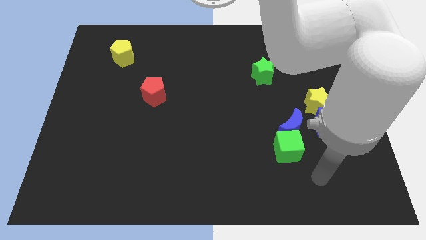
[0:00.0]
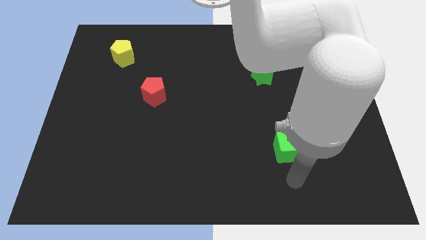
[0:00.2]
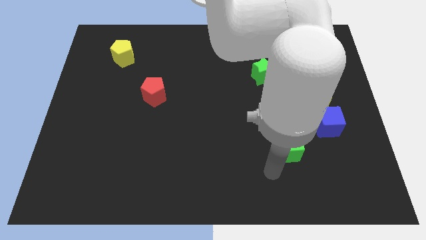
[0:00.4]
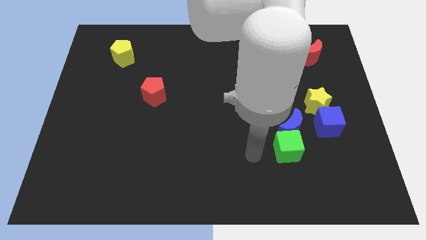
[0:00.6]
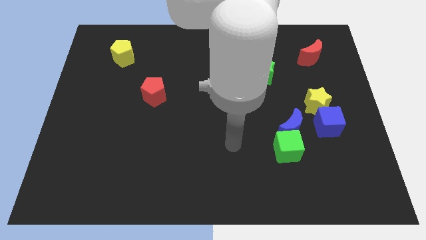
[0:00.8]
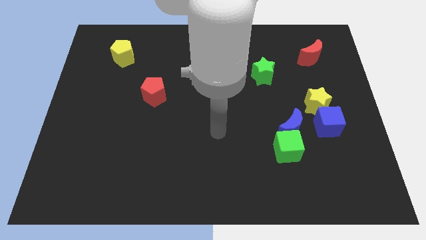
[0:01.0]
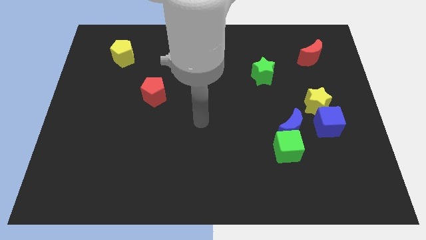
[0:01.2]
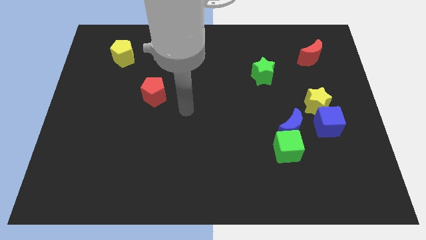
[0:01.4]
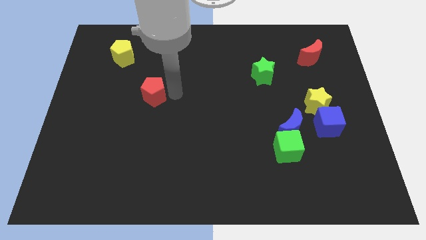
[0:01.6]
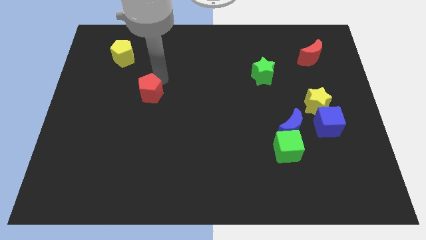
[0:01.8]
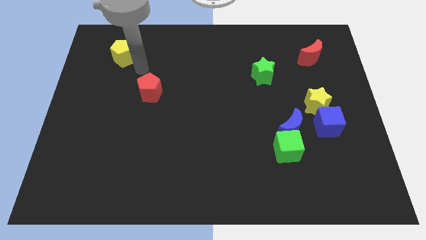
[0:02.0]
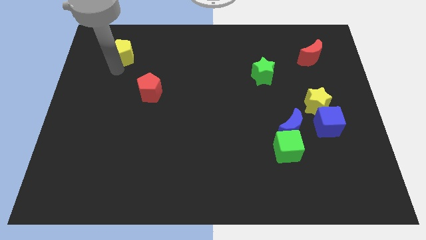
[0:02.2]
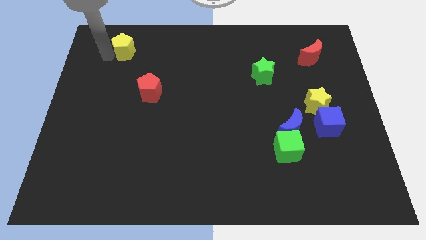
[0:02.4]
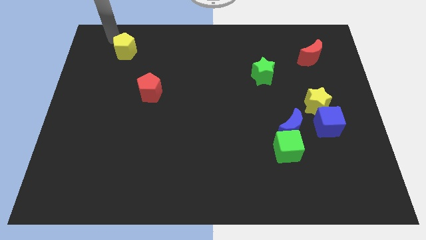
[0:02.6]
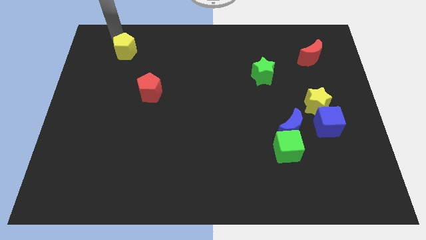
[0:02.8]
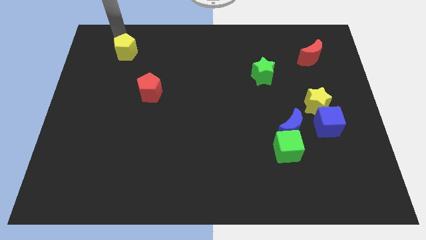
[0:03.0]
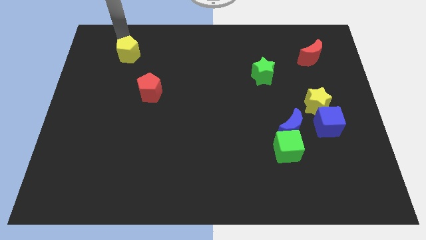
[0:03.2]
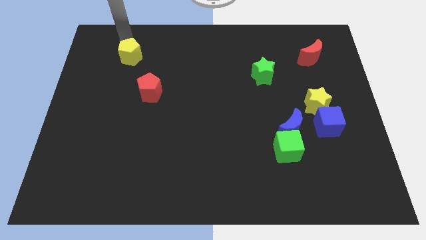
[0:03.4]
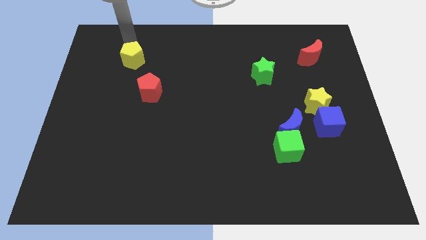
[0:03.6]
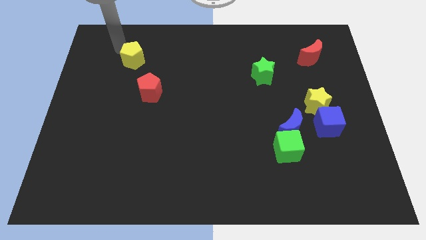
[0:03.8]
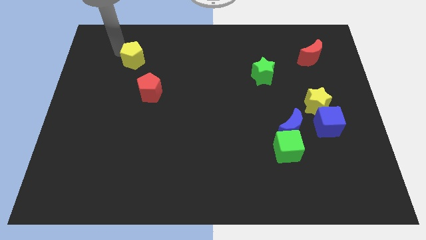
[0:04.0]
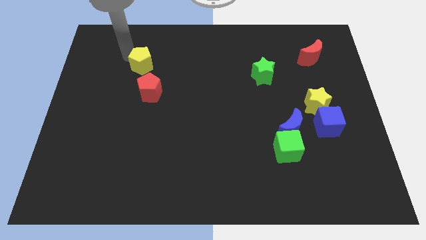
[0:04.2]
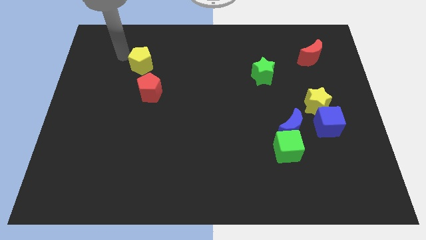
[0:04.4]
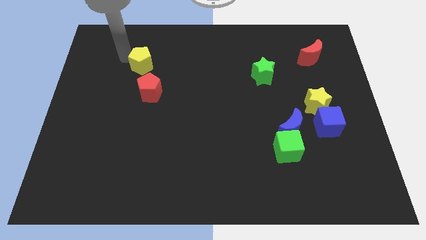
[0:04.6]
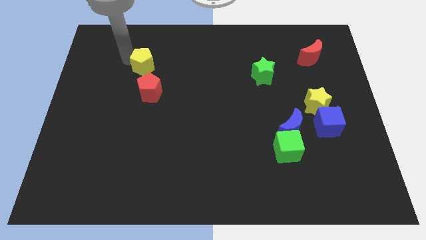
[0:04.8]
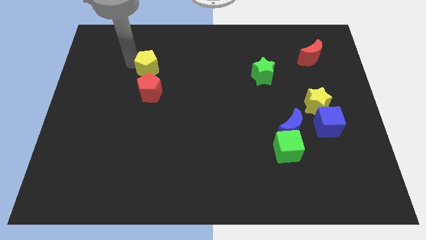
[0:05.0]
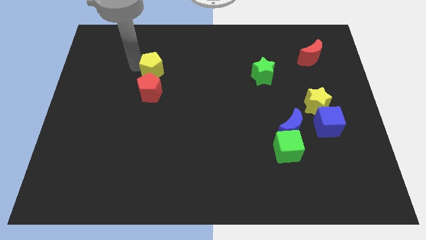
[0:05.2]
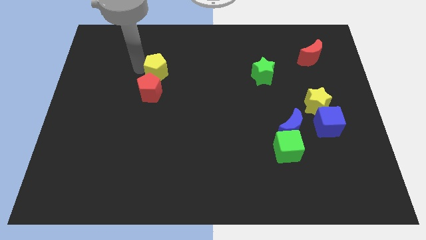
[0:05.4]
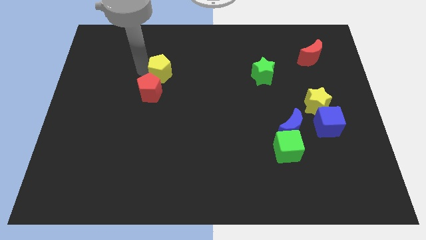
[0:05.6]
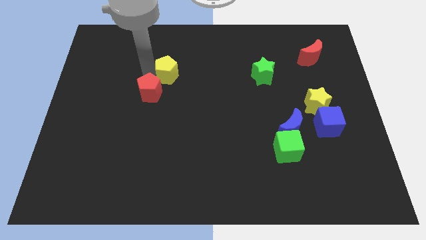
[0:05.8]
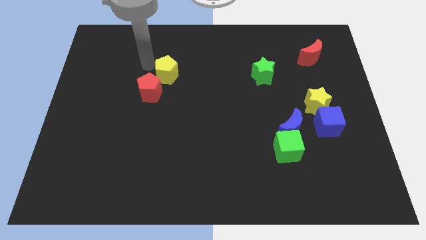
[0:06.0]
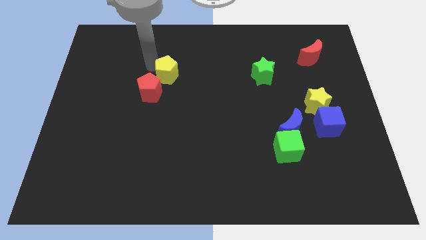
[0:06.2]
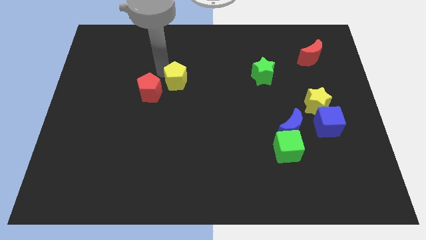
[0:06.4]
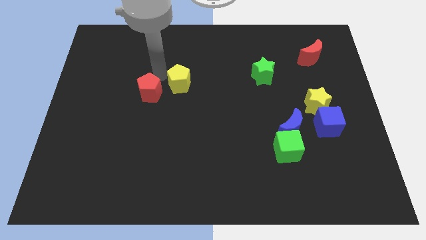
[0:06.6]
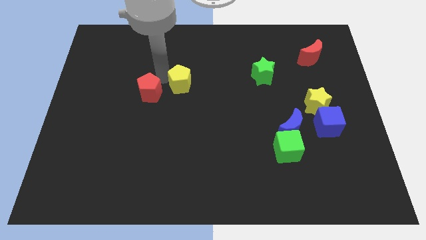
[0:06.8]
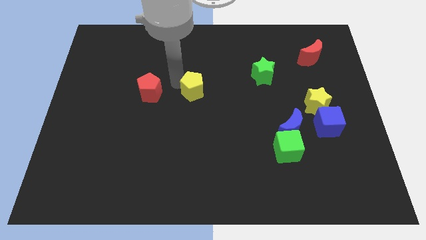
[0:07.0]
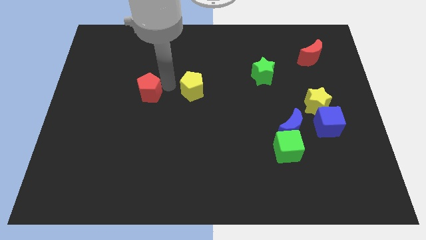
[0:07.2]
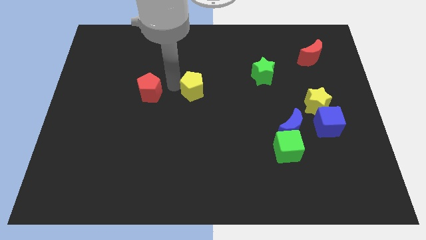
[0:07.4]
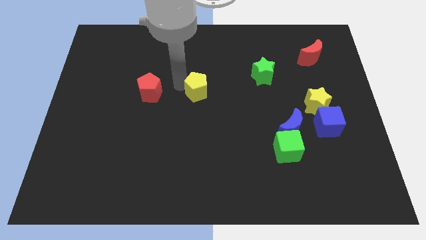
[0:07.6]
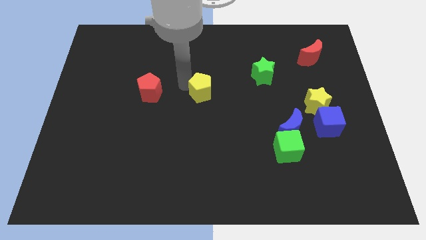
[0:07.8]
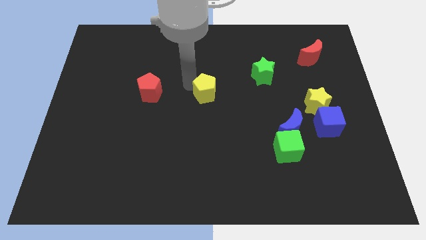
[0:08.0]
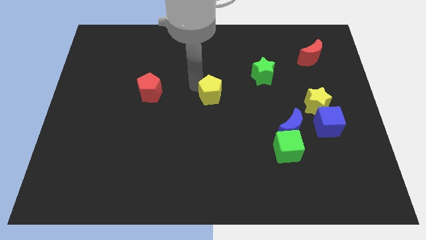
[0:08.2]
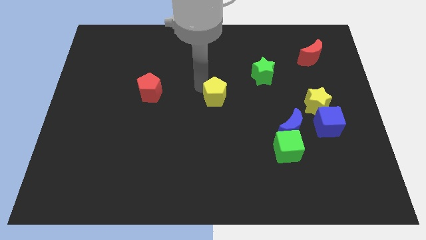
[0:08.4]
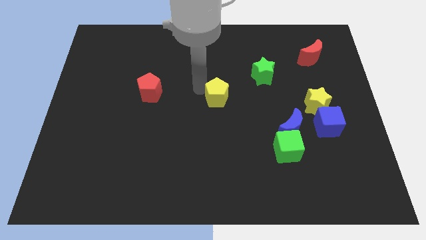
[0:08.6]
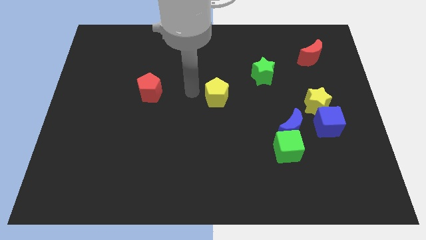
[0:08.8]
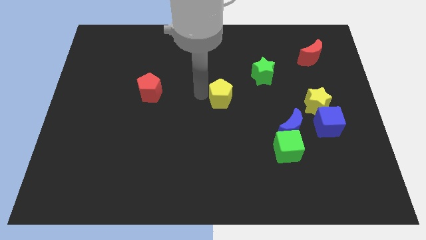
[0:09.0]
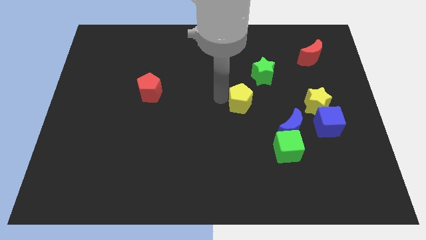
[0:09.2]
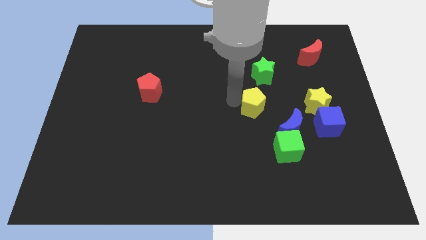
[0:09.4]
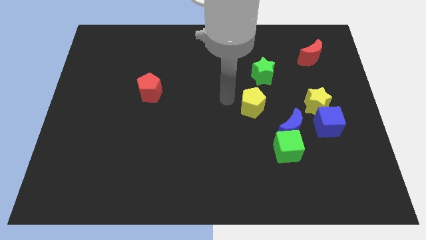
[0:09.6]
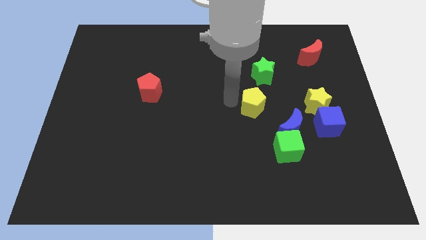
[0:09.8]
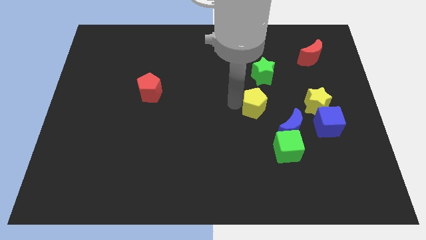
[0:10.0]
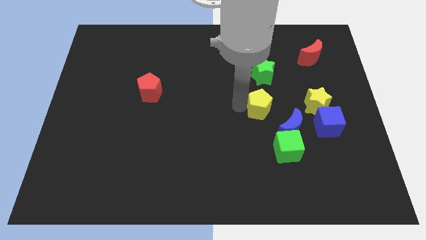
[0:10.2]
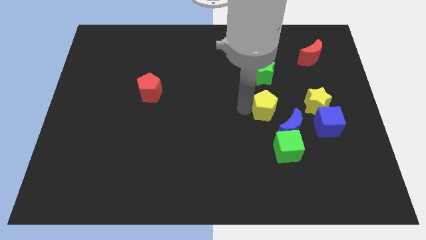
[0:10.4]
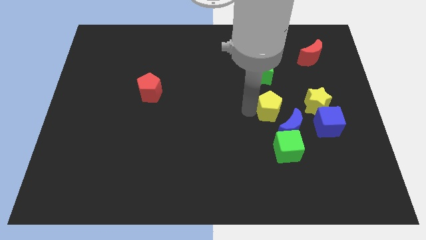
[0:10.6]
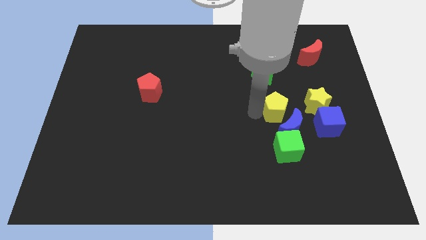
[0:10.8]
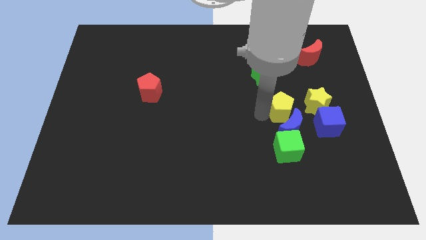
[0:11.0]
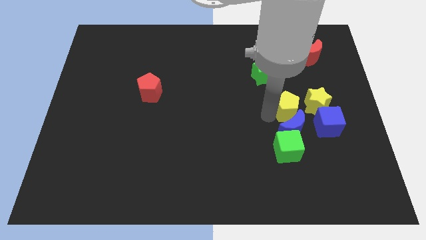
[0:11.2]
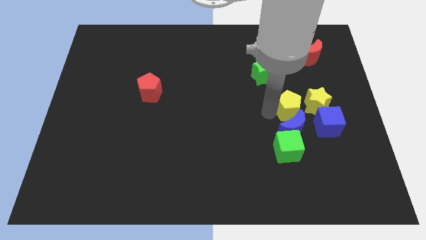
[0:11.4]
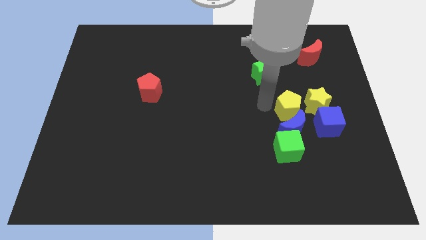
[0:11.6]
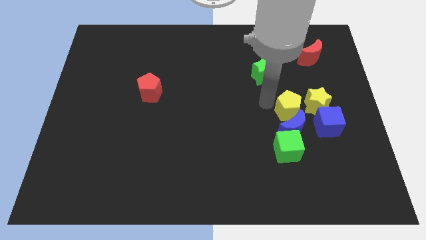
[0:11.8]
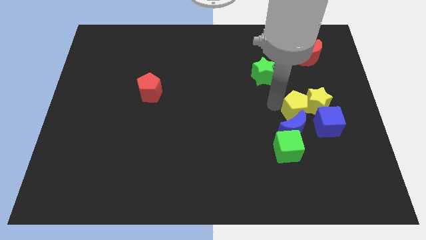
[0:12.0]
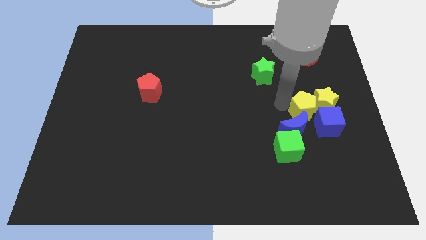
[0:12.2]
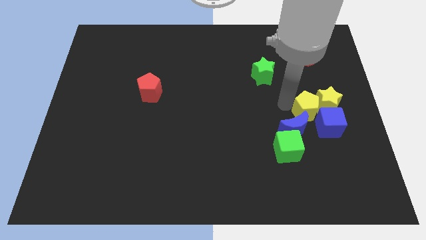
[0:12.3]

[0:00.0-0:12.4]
move the yellow pentagon towards the blue cube

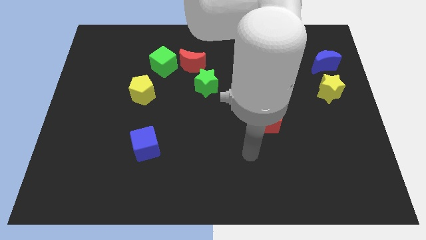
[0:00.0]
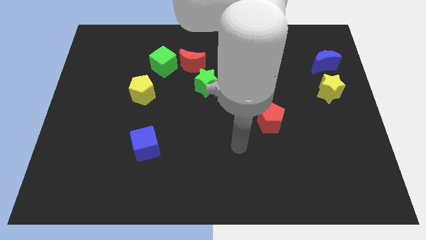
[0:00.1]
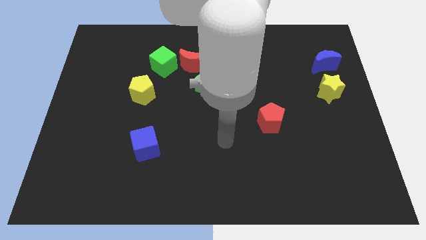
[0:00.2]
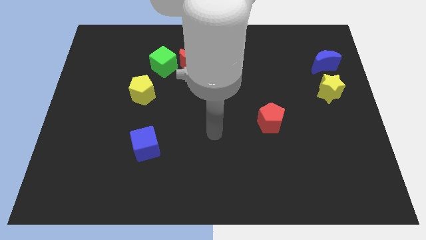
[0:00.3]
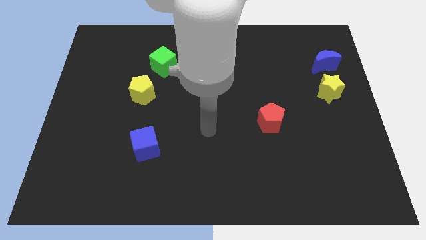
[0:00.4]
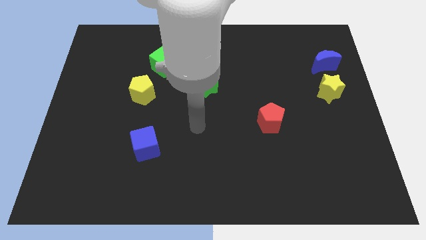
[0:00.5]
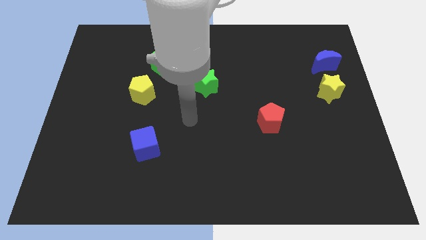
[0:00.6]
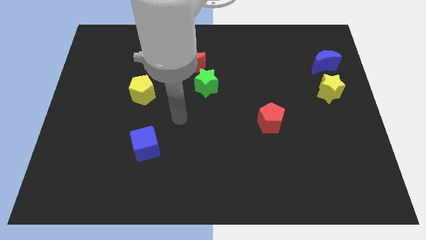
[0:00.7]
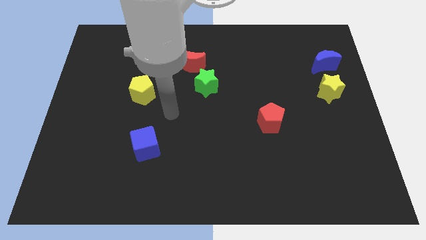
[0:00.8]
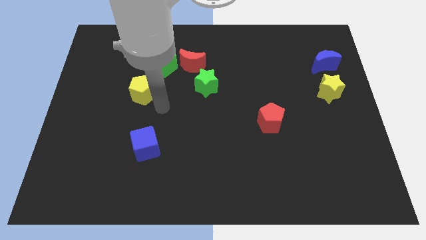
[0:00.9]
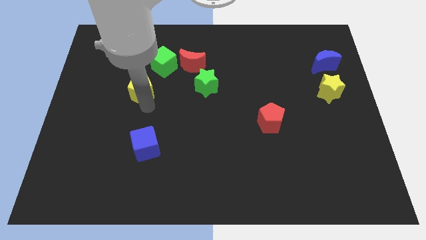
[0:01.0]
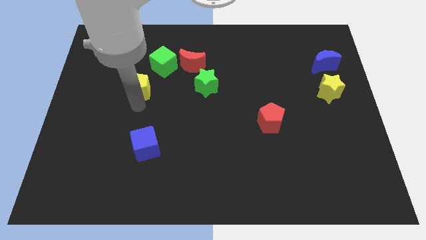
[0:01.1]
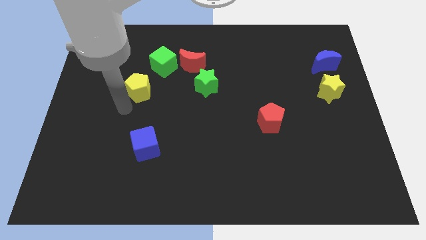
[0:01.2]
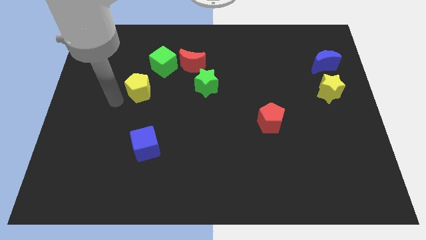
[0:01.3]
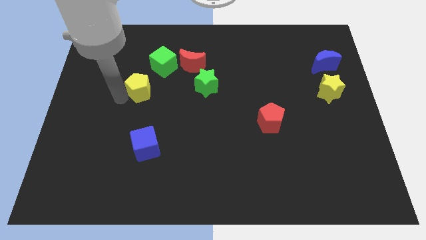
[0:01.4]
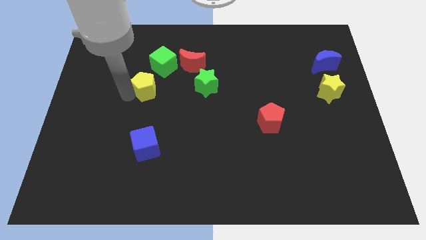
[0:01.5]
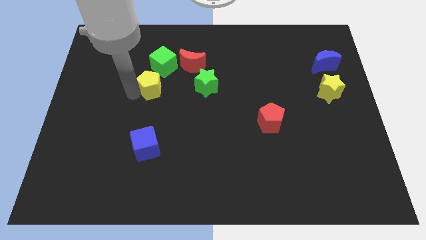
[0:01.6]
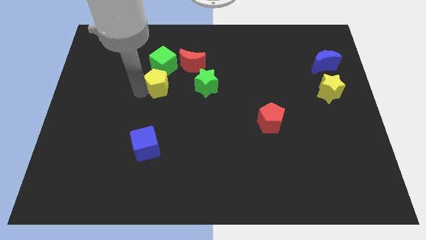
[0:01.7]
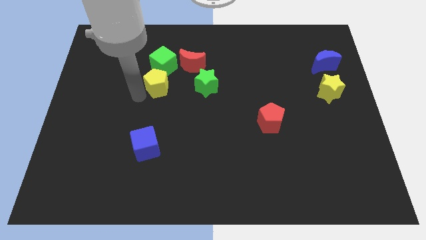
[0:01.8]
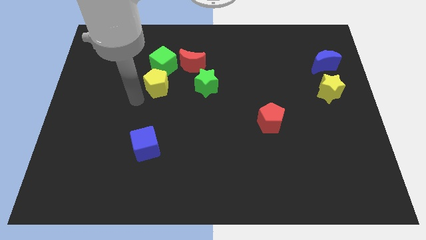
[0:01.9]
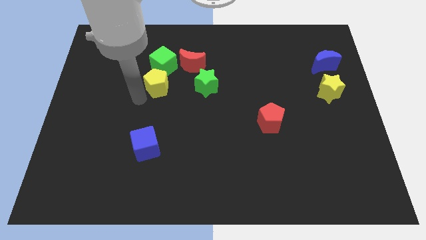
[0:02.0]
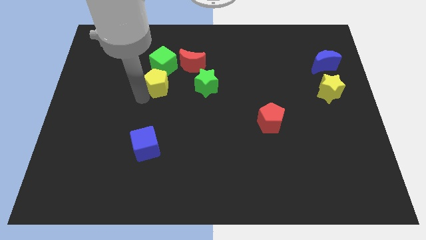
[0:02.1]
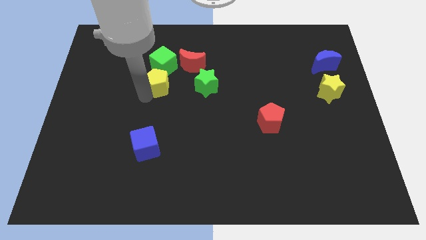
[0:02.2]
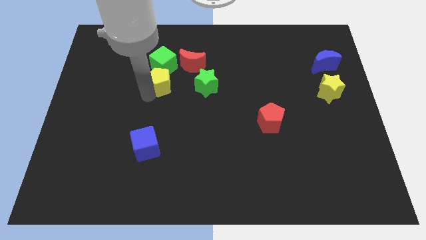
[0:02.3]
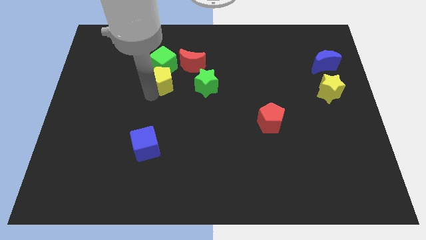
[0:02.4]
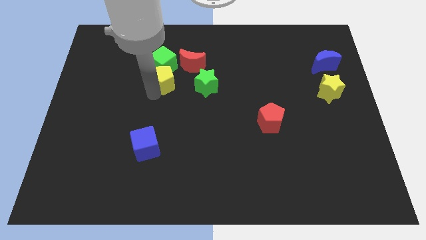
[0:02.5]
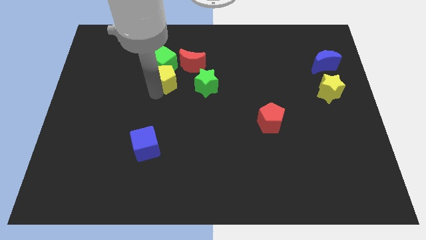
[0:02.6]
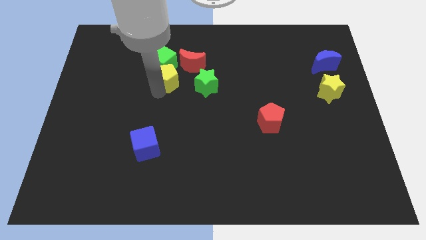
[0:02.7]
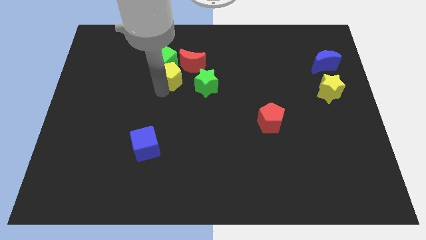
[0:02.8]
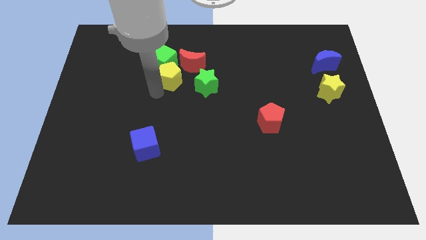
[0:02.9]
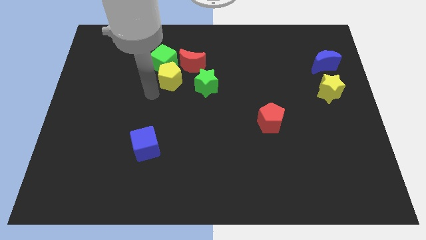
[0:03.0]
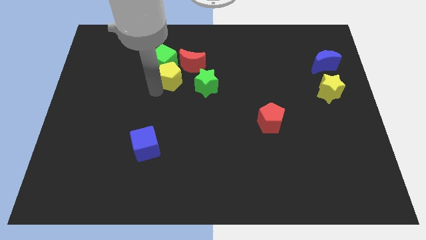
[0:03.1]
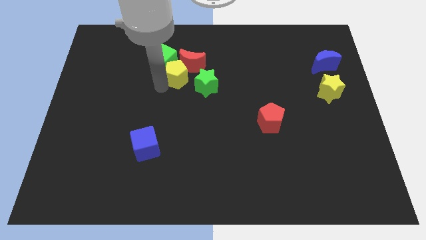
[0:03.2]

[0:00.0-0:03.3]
move the yellow pentagon close to the red moon
